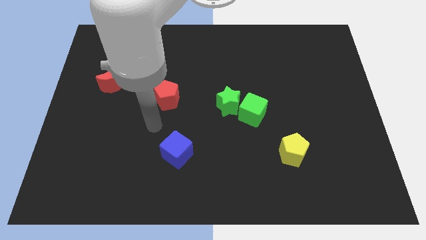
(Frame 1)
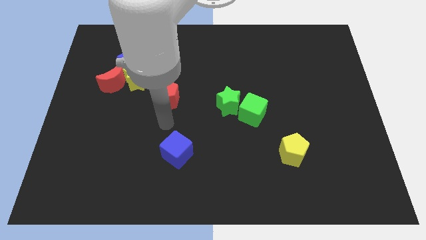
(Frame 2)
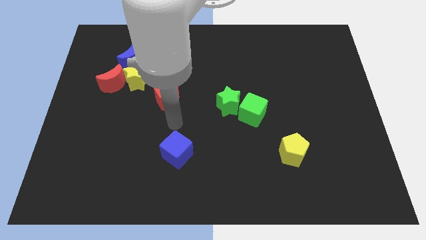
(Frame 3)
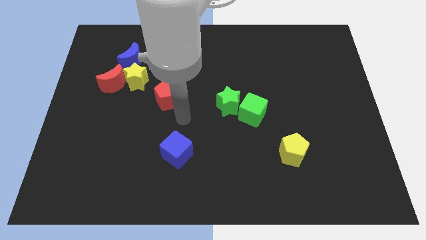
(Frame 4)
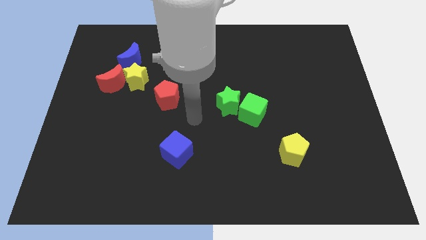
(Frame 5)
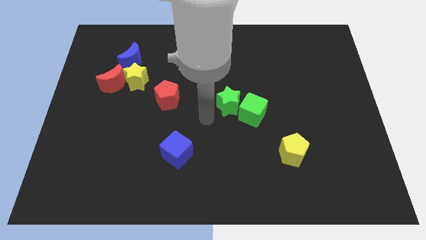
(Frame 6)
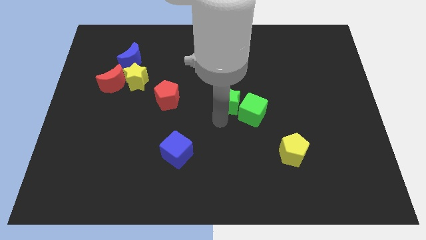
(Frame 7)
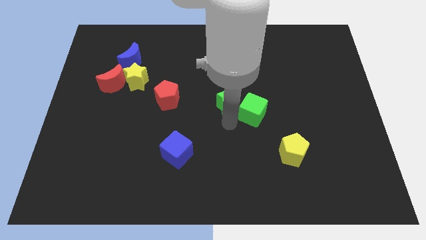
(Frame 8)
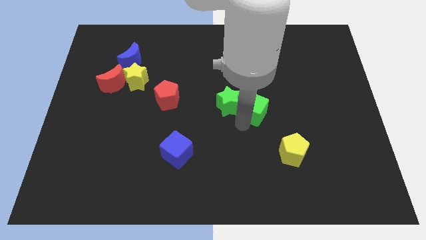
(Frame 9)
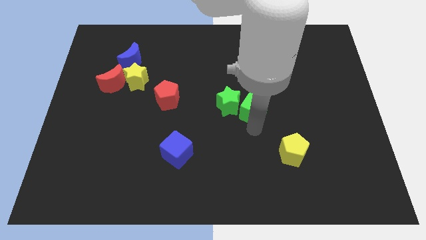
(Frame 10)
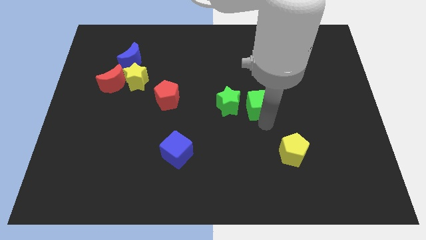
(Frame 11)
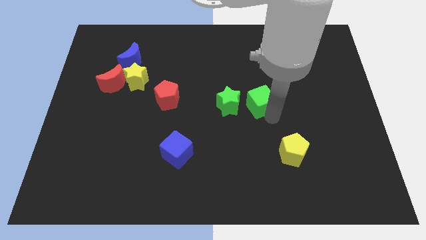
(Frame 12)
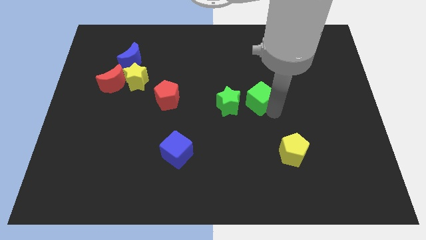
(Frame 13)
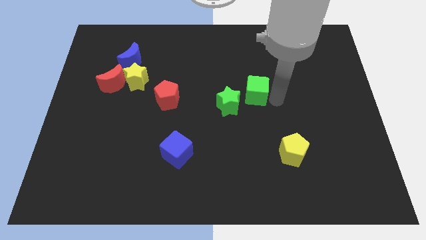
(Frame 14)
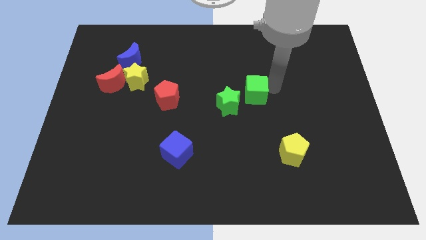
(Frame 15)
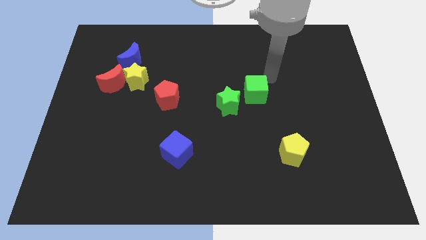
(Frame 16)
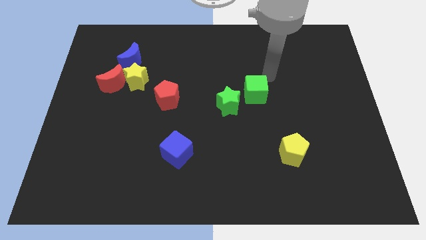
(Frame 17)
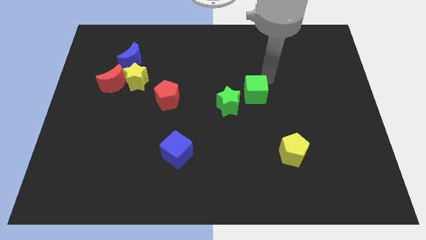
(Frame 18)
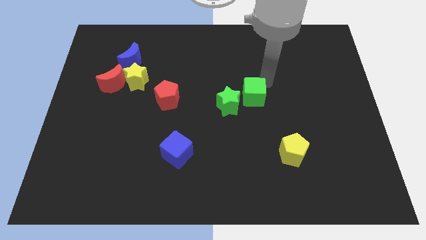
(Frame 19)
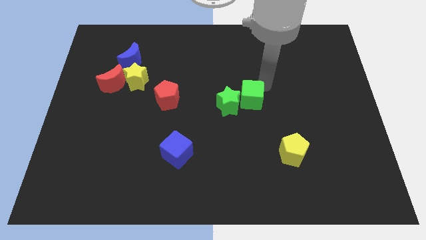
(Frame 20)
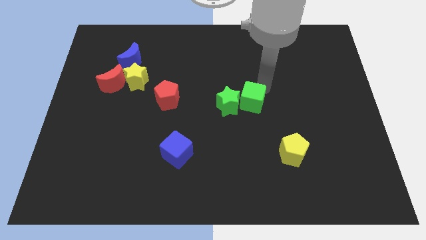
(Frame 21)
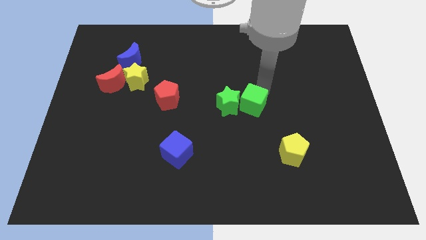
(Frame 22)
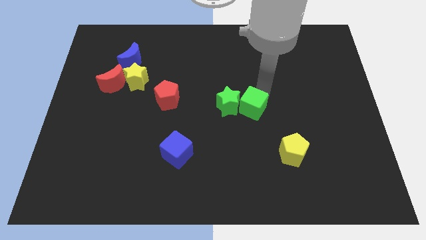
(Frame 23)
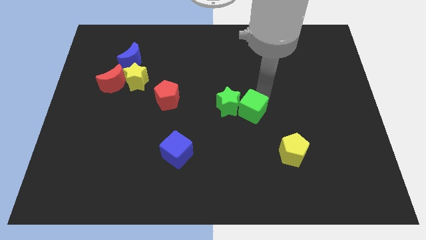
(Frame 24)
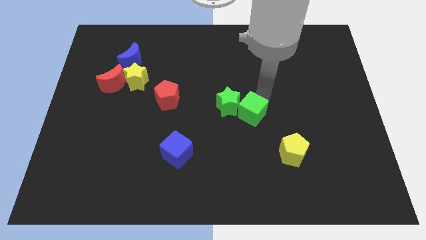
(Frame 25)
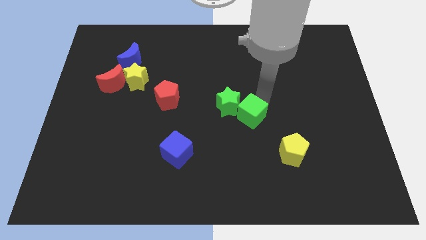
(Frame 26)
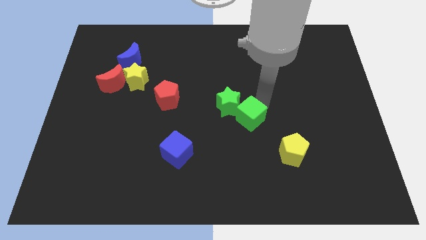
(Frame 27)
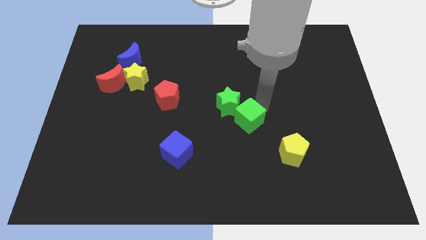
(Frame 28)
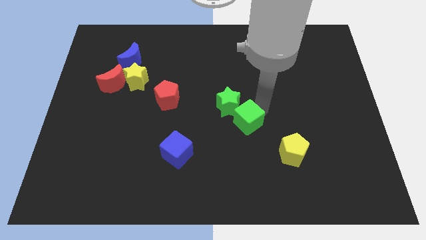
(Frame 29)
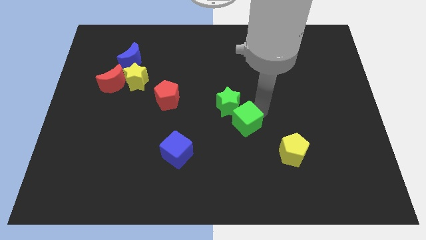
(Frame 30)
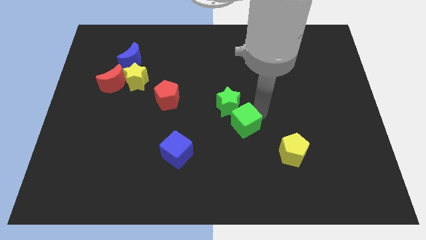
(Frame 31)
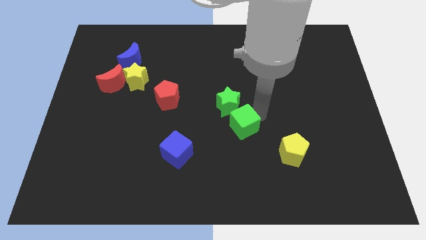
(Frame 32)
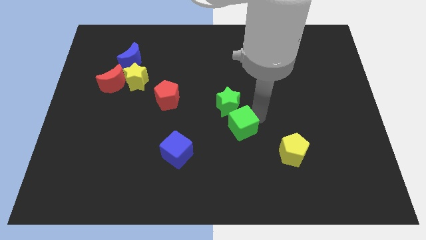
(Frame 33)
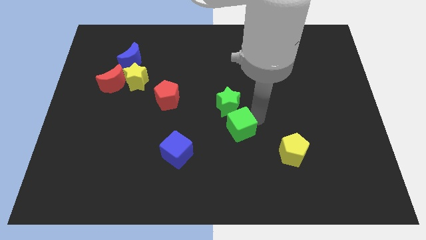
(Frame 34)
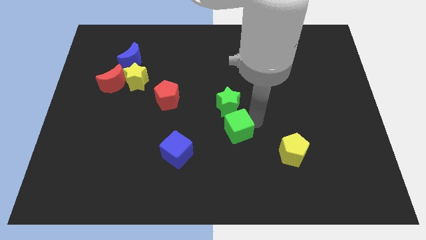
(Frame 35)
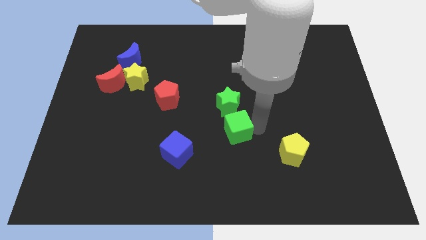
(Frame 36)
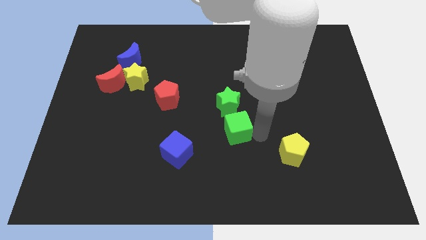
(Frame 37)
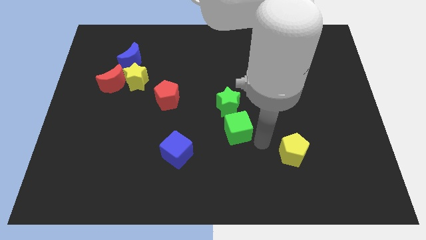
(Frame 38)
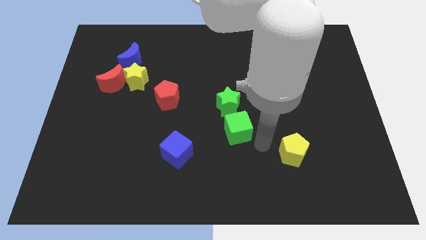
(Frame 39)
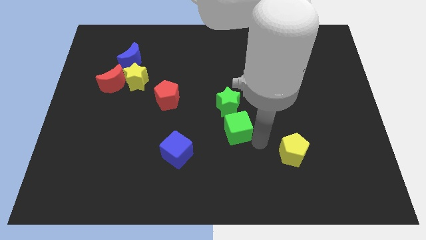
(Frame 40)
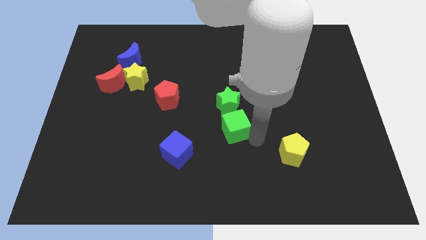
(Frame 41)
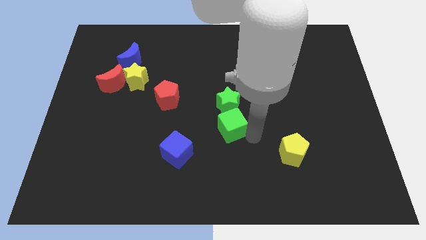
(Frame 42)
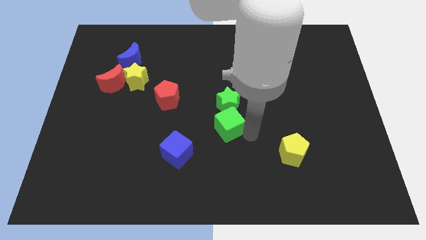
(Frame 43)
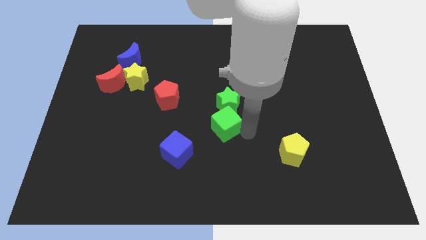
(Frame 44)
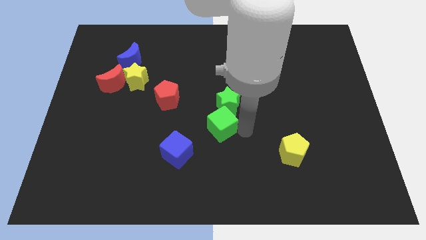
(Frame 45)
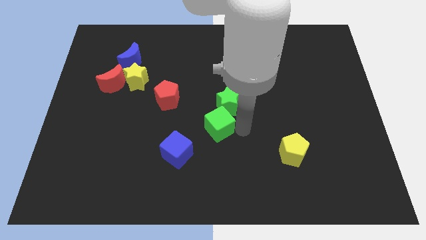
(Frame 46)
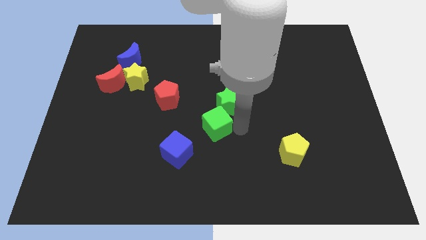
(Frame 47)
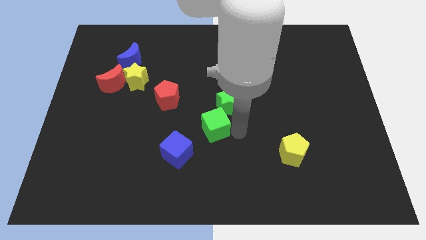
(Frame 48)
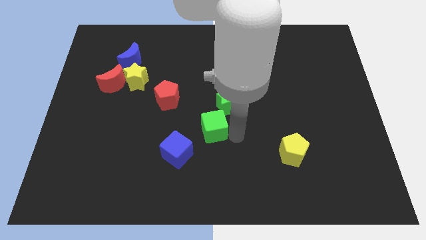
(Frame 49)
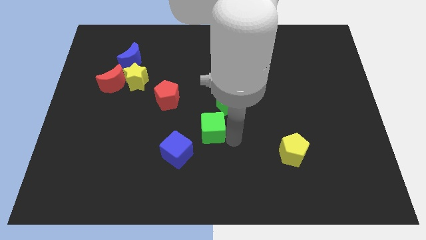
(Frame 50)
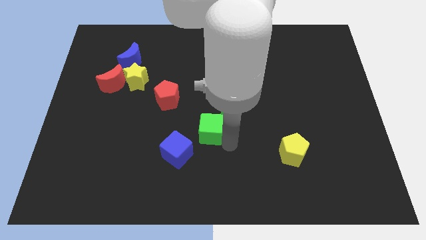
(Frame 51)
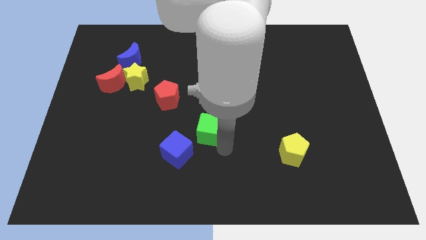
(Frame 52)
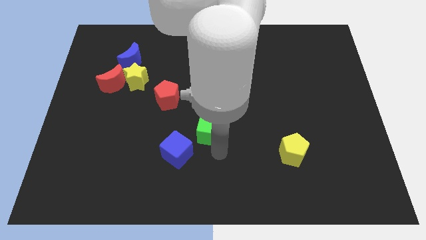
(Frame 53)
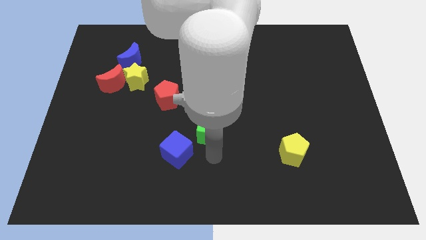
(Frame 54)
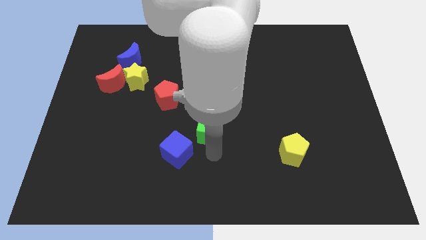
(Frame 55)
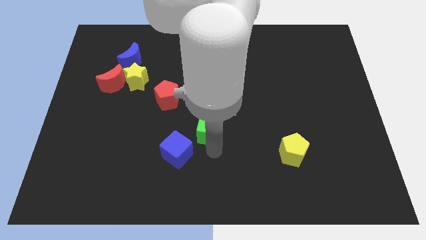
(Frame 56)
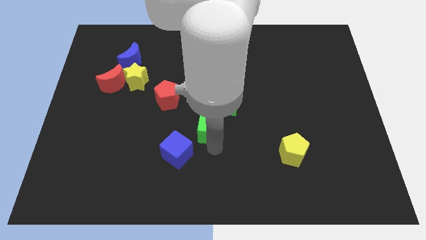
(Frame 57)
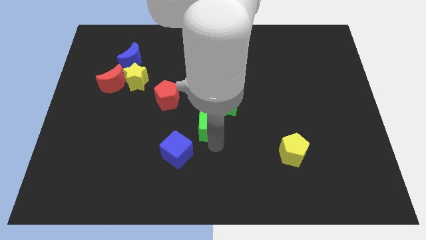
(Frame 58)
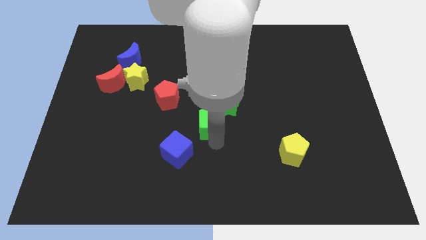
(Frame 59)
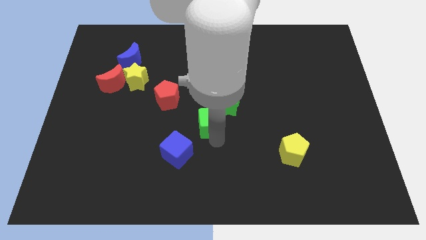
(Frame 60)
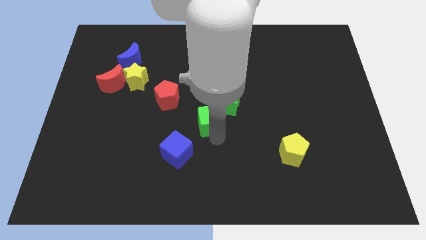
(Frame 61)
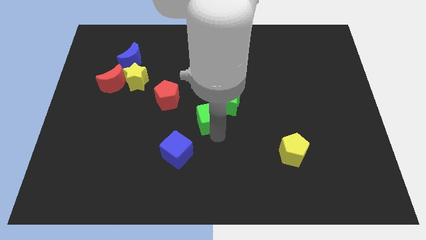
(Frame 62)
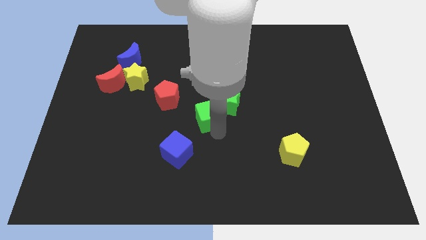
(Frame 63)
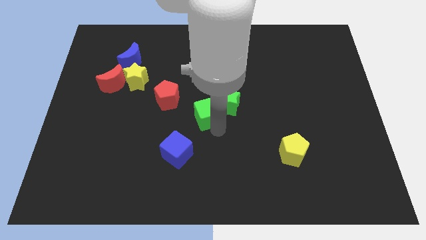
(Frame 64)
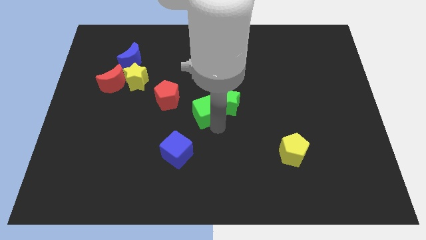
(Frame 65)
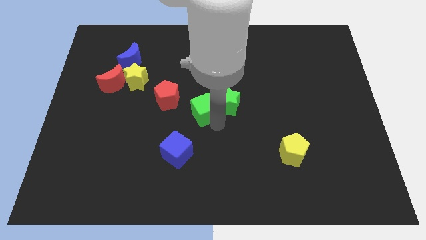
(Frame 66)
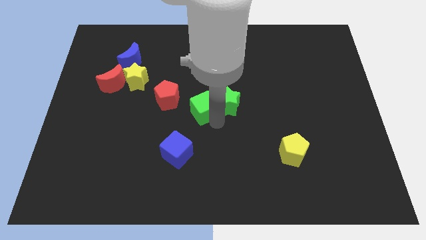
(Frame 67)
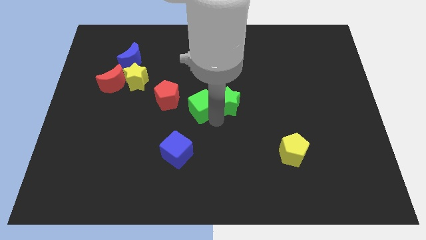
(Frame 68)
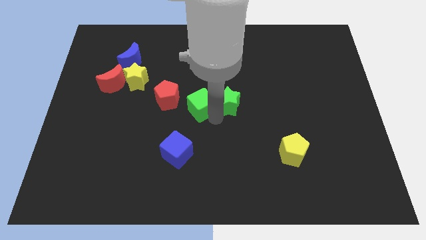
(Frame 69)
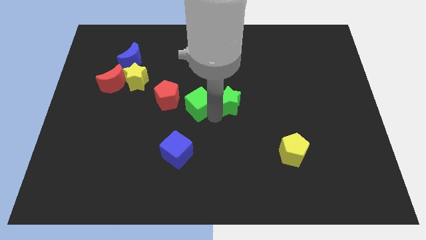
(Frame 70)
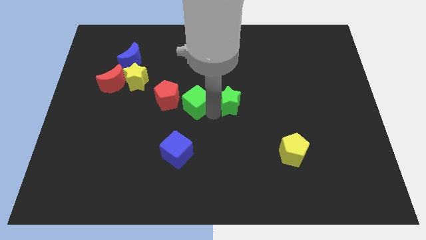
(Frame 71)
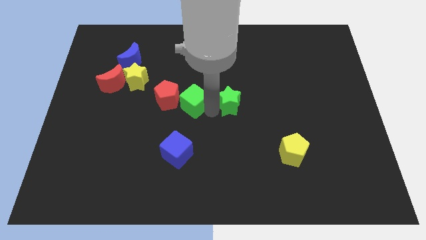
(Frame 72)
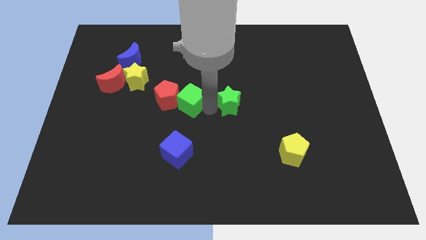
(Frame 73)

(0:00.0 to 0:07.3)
push the green cube towards the red pentagon

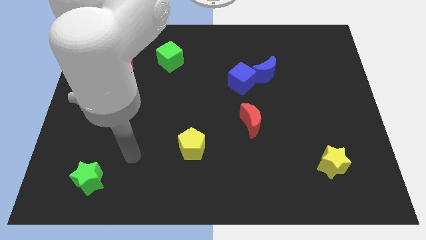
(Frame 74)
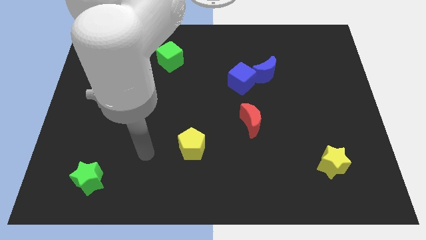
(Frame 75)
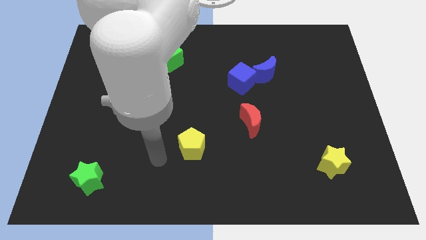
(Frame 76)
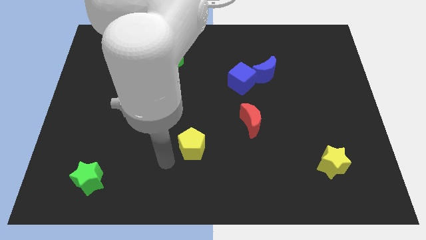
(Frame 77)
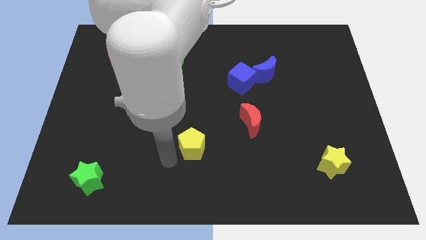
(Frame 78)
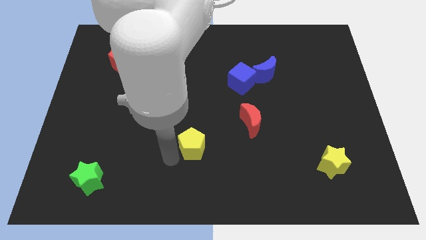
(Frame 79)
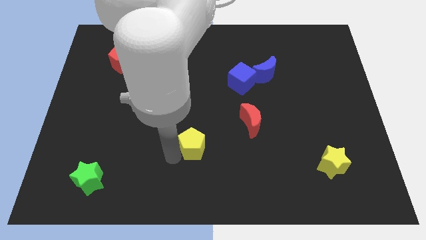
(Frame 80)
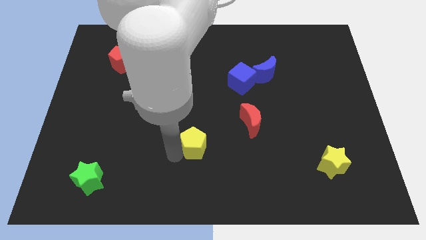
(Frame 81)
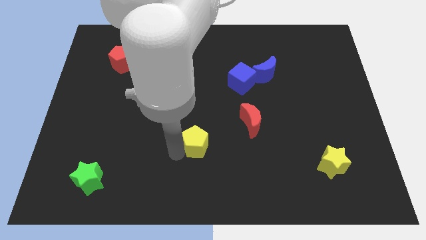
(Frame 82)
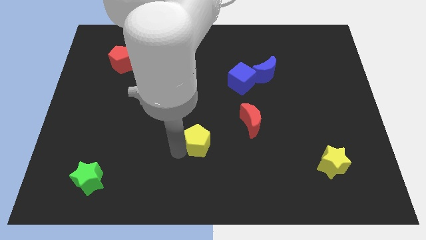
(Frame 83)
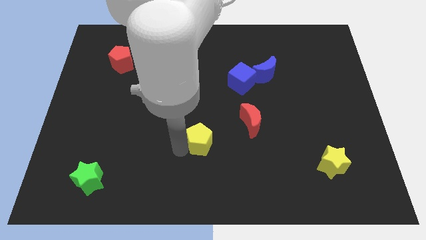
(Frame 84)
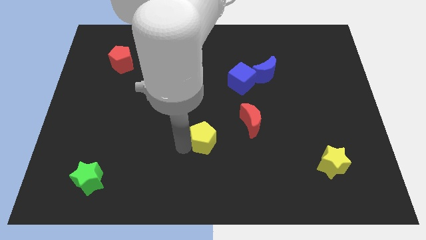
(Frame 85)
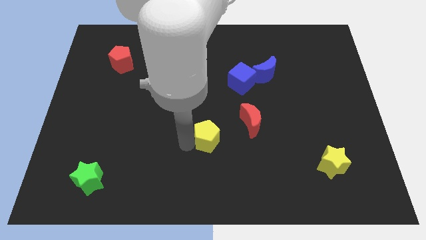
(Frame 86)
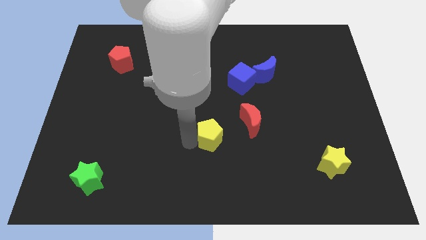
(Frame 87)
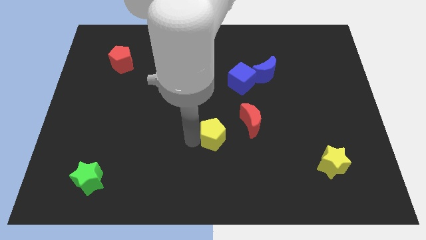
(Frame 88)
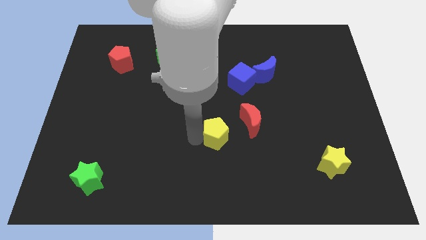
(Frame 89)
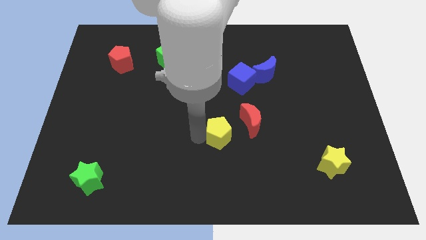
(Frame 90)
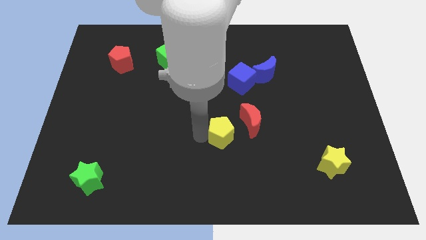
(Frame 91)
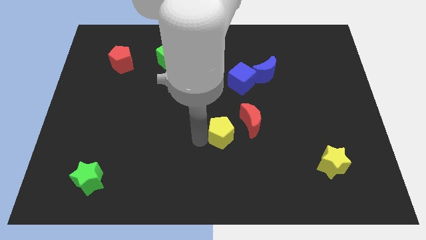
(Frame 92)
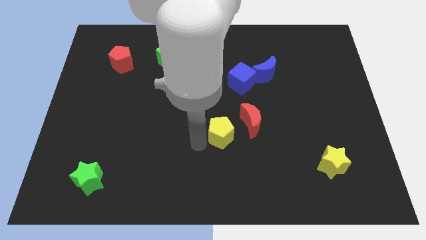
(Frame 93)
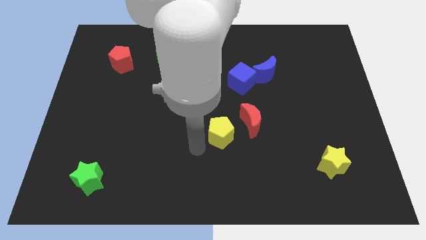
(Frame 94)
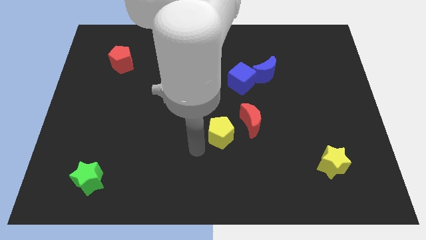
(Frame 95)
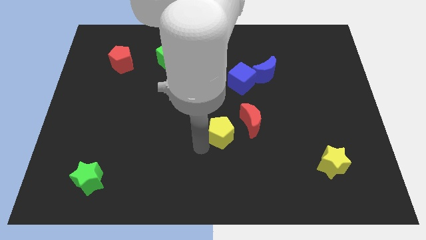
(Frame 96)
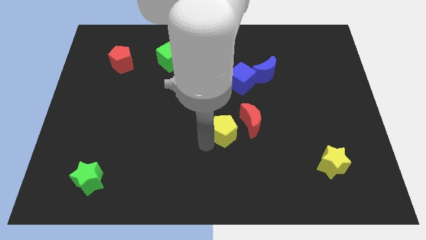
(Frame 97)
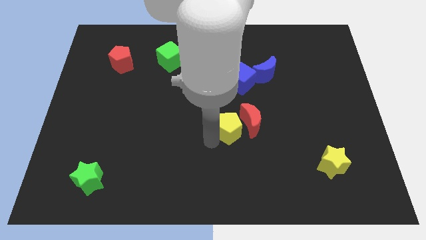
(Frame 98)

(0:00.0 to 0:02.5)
move the yellow pentagon close to the red moon
